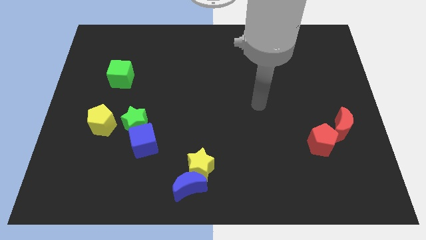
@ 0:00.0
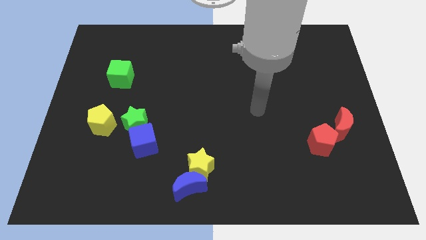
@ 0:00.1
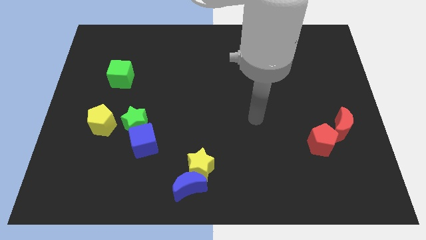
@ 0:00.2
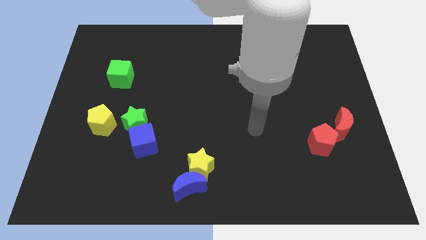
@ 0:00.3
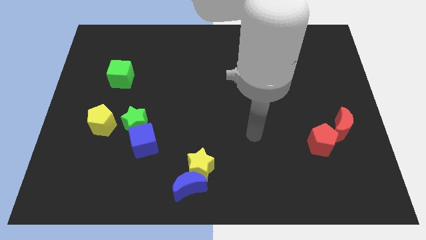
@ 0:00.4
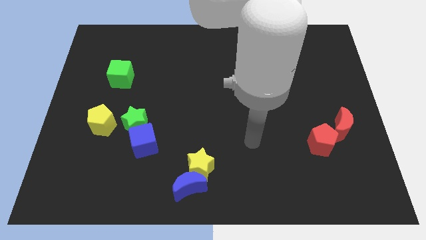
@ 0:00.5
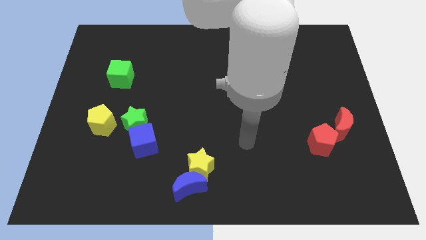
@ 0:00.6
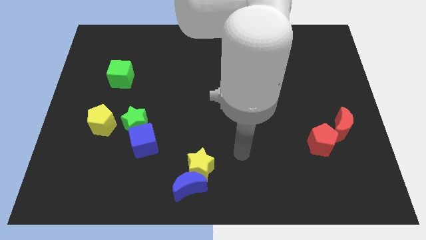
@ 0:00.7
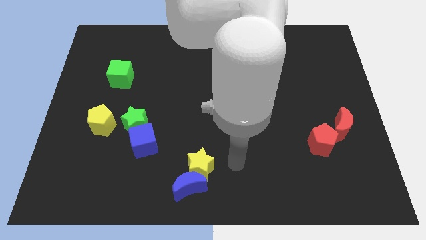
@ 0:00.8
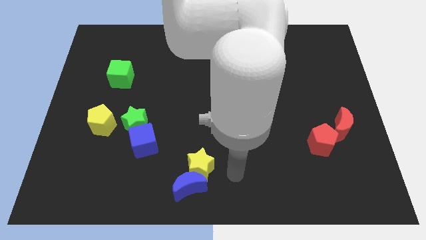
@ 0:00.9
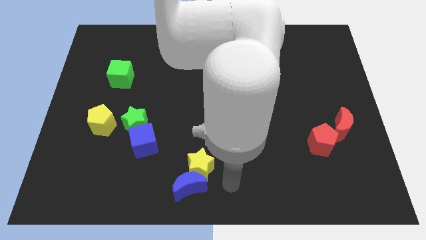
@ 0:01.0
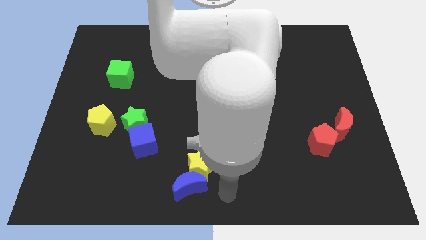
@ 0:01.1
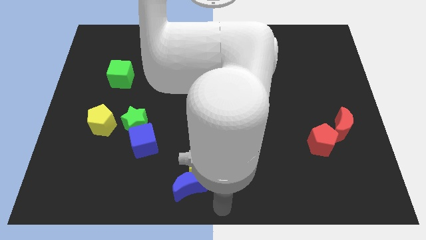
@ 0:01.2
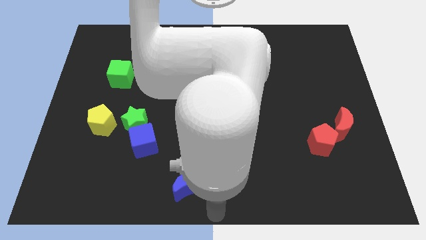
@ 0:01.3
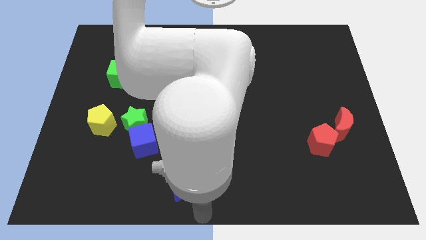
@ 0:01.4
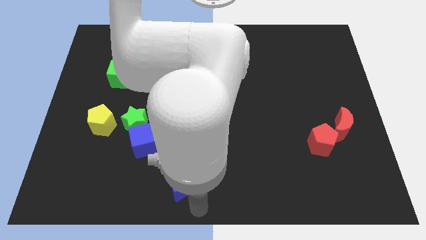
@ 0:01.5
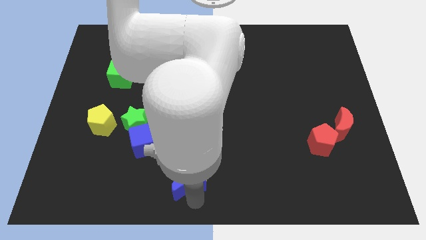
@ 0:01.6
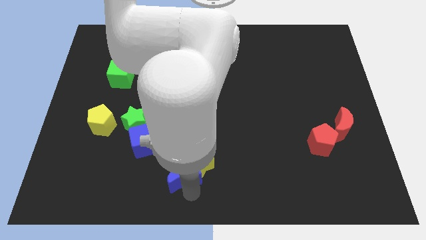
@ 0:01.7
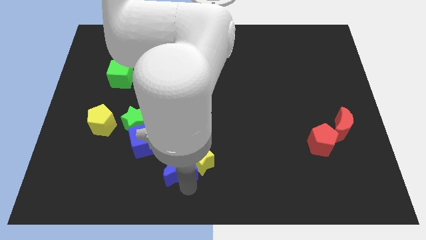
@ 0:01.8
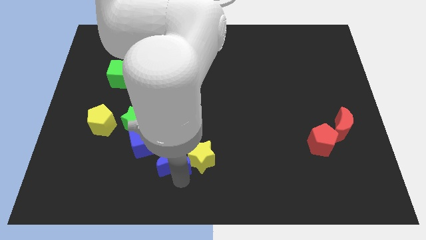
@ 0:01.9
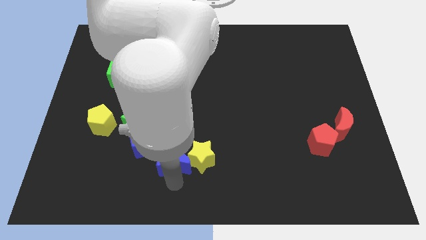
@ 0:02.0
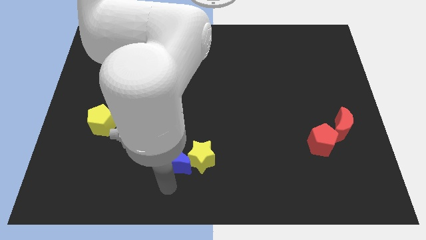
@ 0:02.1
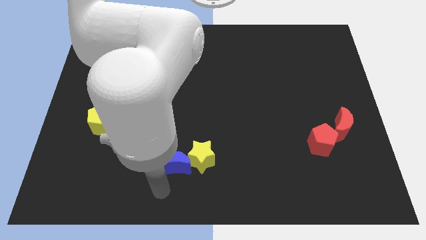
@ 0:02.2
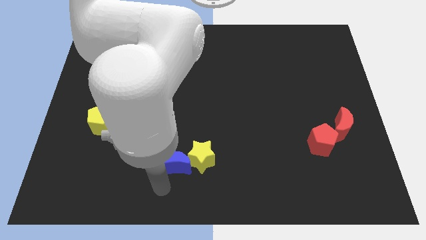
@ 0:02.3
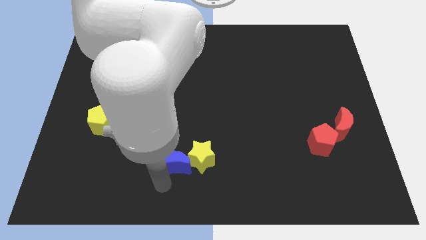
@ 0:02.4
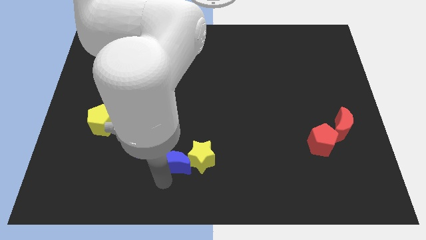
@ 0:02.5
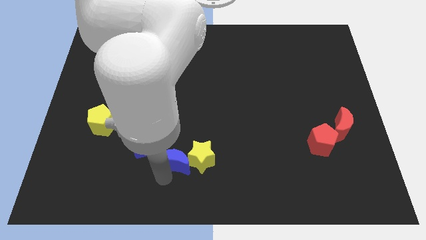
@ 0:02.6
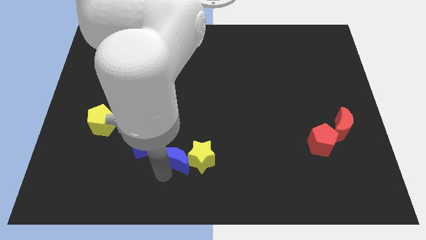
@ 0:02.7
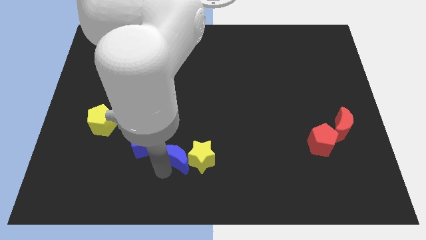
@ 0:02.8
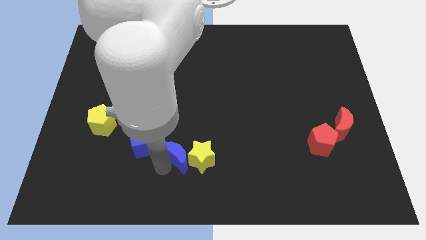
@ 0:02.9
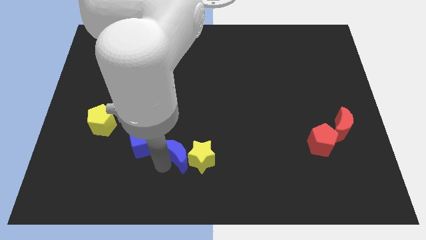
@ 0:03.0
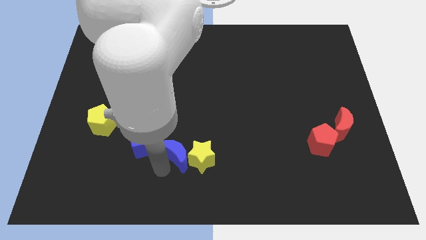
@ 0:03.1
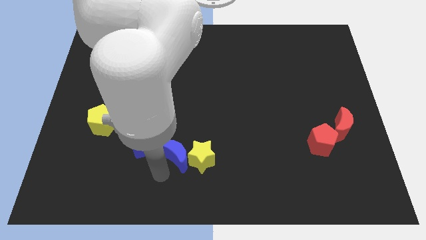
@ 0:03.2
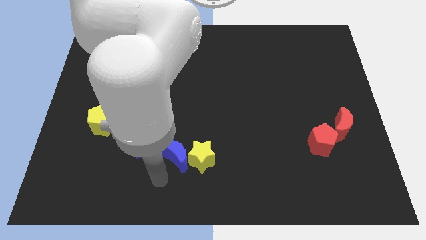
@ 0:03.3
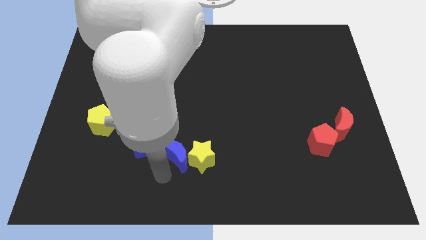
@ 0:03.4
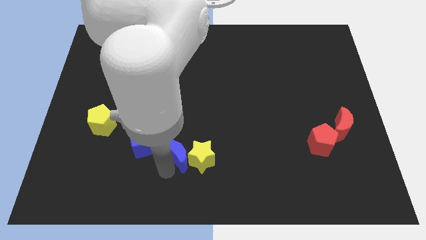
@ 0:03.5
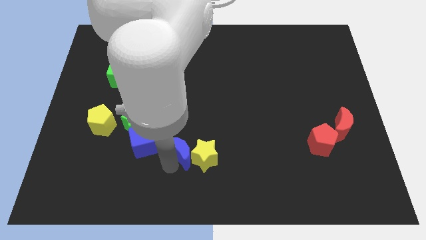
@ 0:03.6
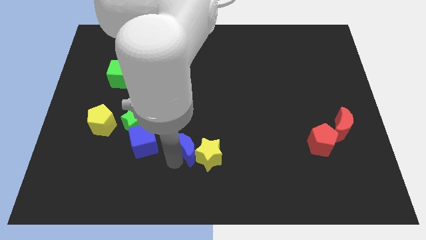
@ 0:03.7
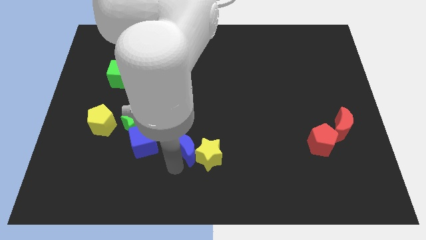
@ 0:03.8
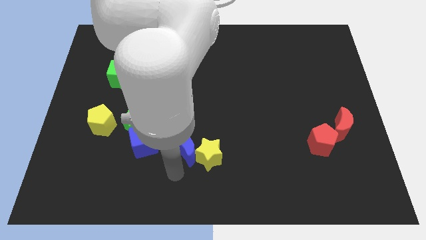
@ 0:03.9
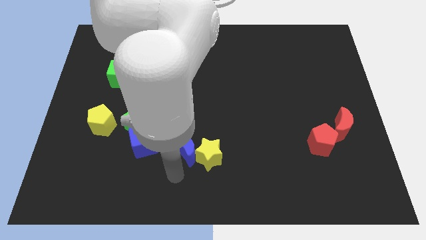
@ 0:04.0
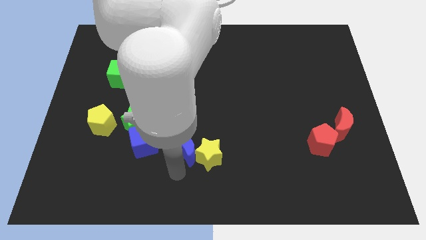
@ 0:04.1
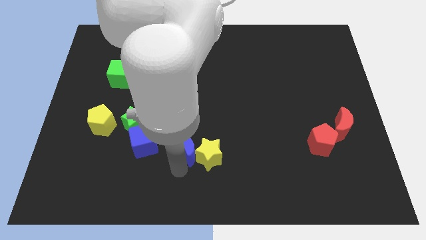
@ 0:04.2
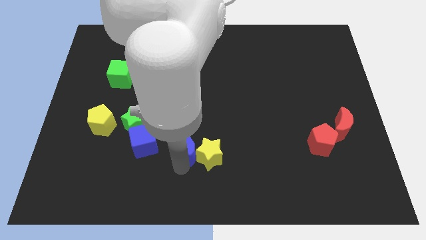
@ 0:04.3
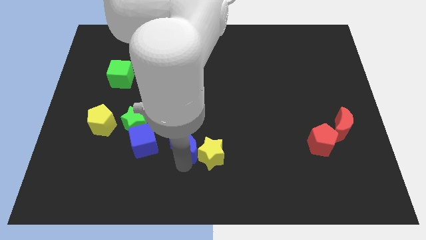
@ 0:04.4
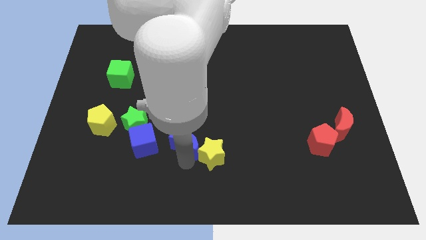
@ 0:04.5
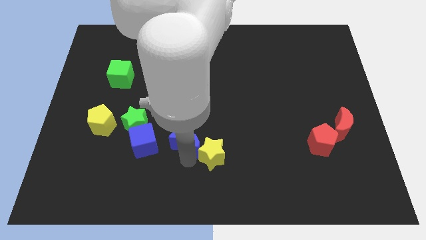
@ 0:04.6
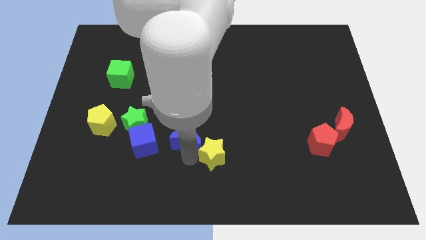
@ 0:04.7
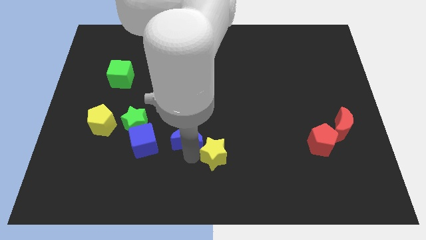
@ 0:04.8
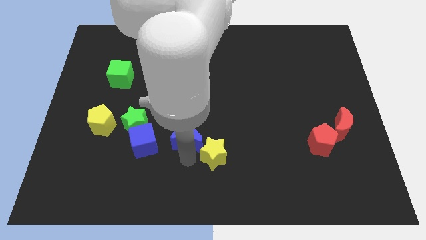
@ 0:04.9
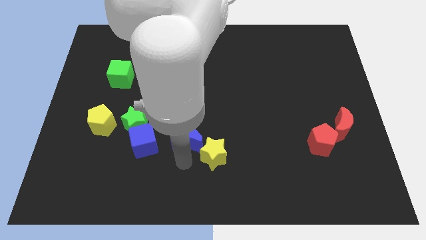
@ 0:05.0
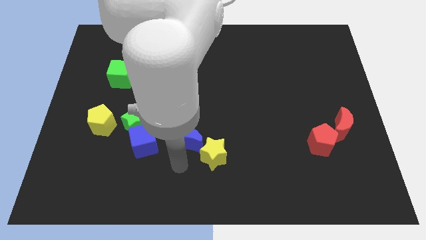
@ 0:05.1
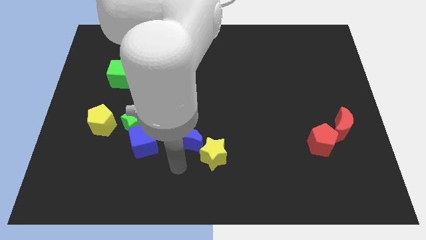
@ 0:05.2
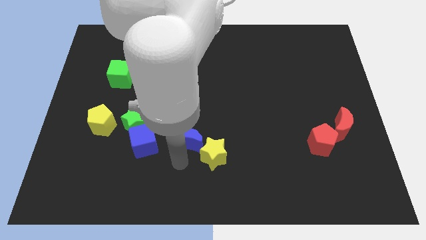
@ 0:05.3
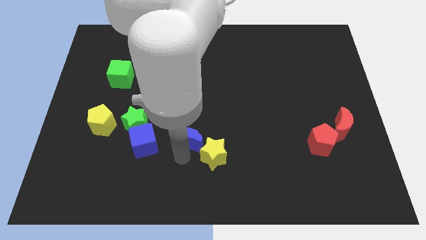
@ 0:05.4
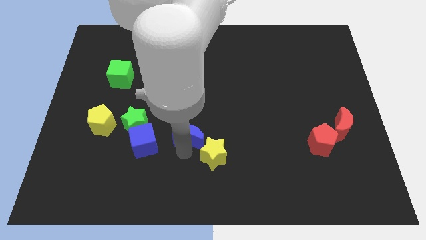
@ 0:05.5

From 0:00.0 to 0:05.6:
move the blue moon to the center of the board

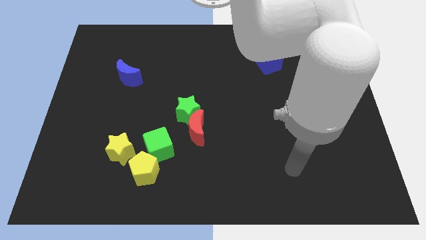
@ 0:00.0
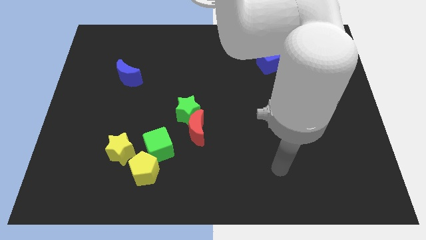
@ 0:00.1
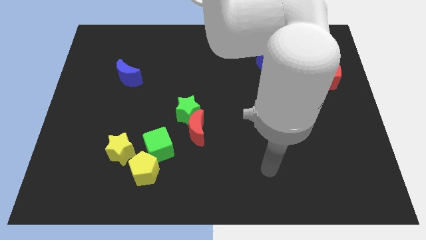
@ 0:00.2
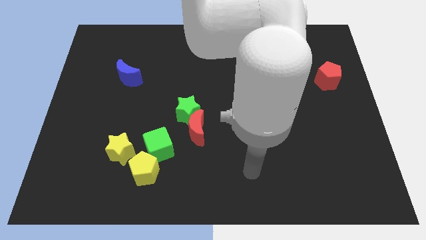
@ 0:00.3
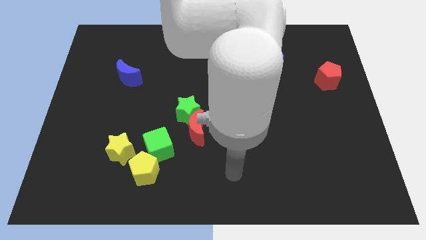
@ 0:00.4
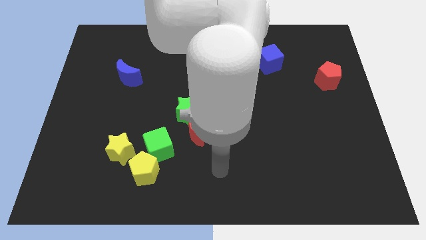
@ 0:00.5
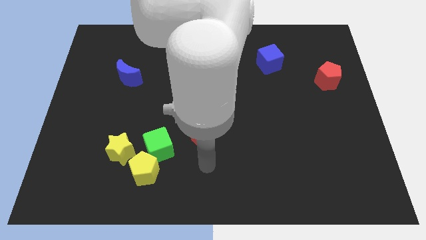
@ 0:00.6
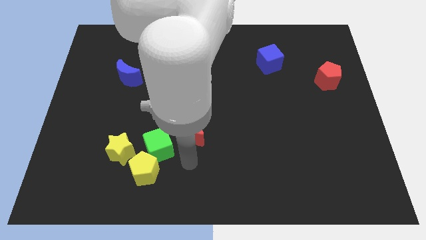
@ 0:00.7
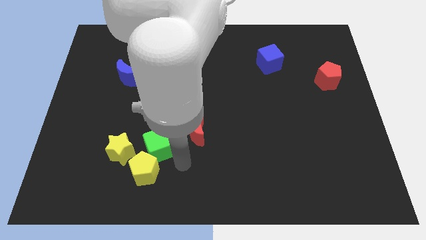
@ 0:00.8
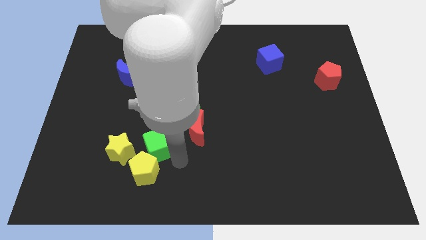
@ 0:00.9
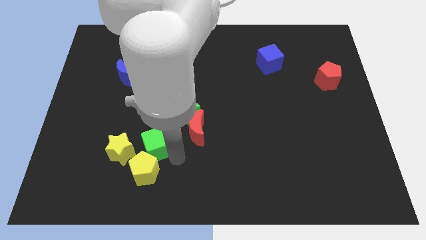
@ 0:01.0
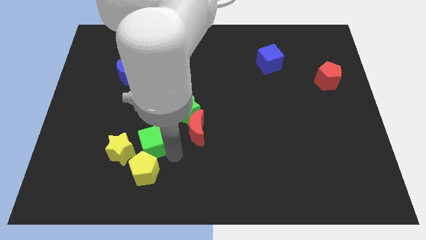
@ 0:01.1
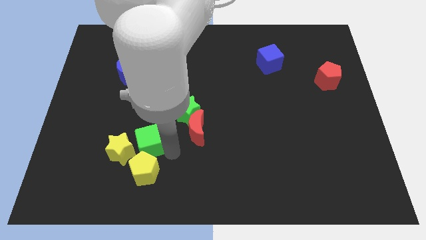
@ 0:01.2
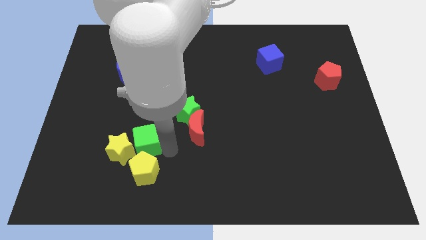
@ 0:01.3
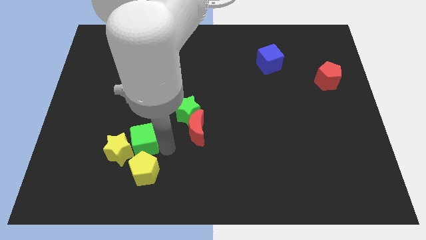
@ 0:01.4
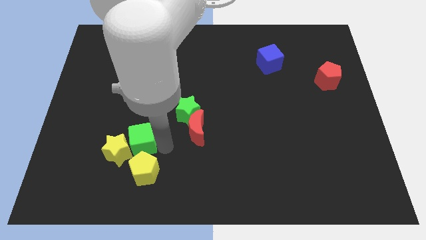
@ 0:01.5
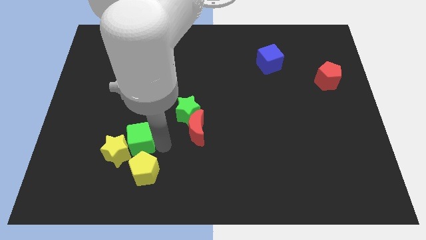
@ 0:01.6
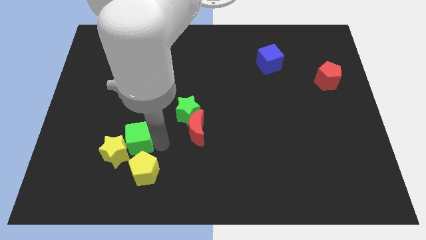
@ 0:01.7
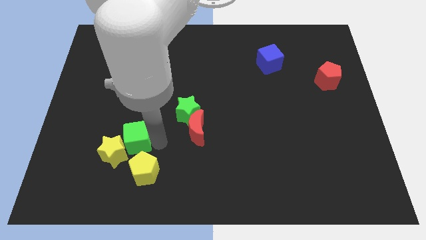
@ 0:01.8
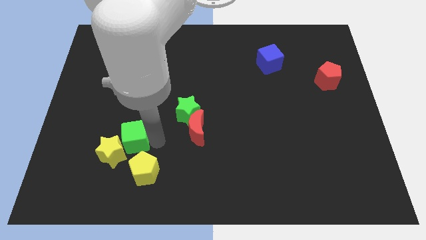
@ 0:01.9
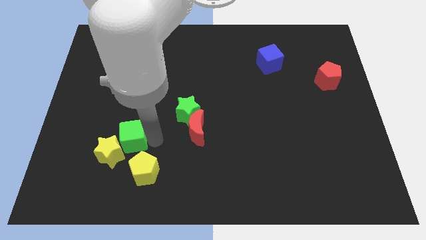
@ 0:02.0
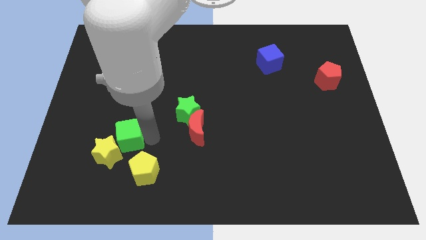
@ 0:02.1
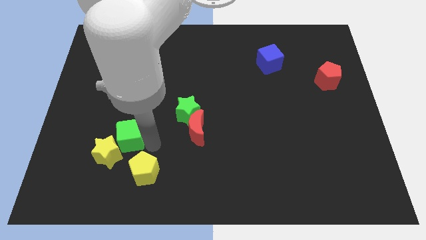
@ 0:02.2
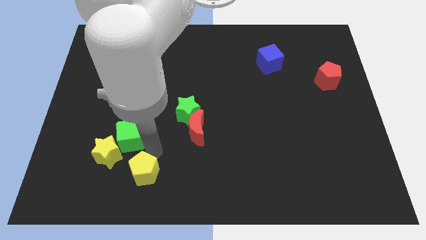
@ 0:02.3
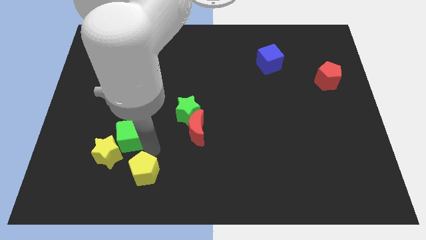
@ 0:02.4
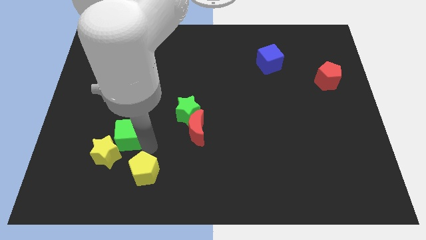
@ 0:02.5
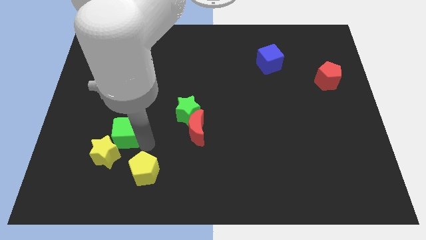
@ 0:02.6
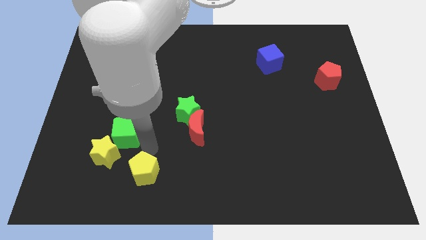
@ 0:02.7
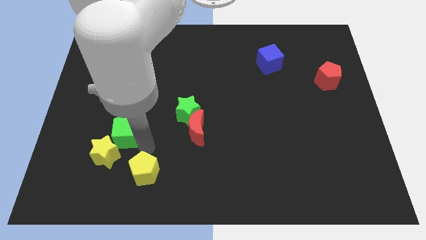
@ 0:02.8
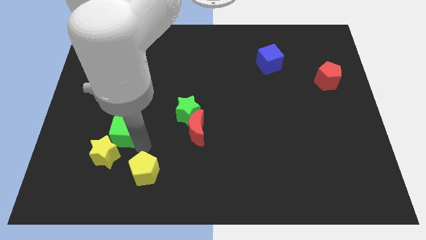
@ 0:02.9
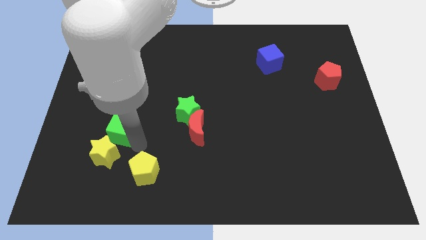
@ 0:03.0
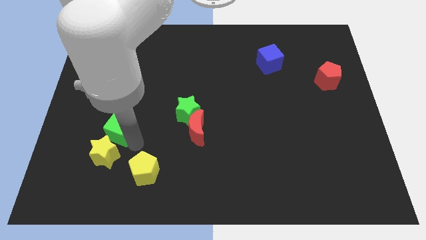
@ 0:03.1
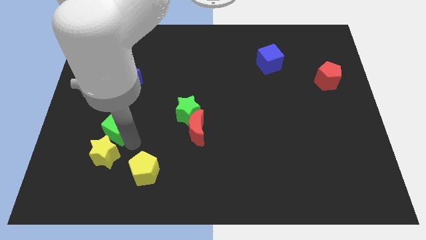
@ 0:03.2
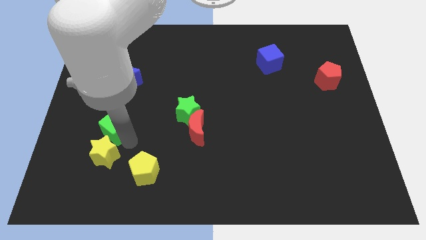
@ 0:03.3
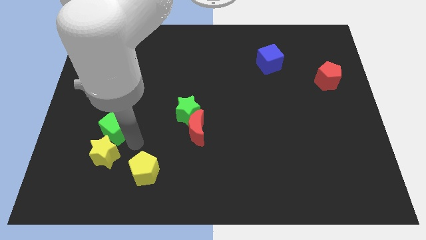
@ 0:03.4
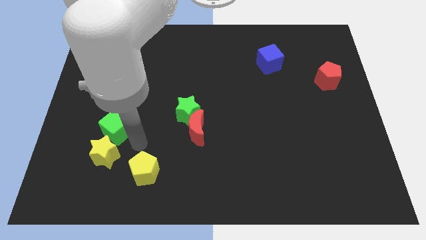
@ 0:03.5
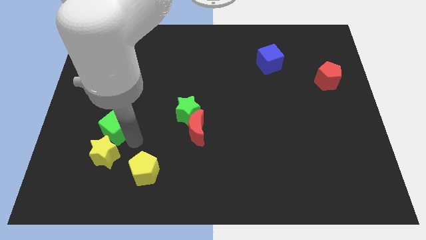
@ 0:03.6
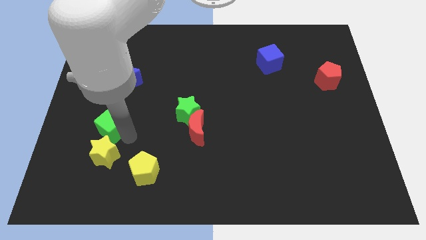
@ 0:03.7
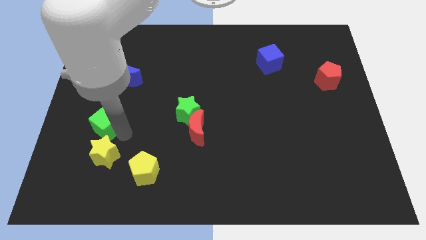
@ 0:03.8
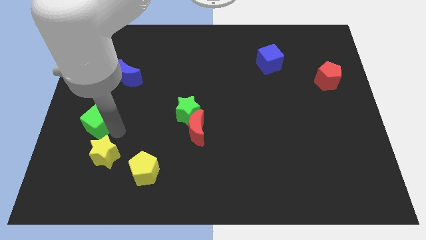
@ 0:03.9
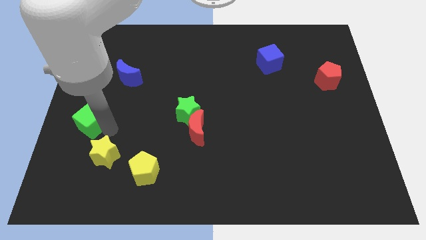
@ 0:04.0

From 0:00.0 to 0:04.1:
push the green cube to the left side of the board
